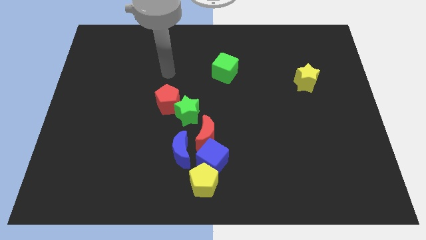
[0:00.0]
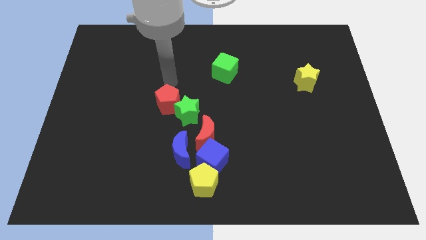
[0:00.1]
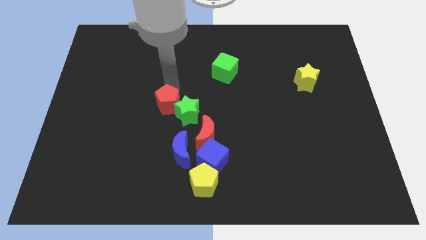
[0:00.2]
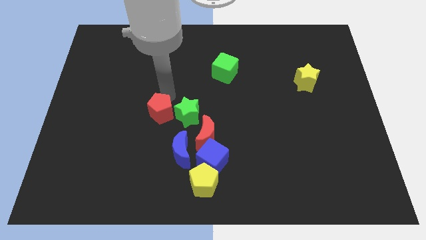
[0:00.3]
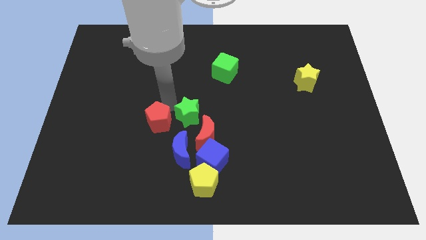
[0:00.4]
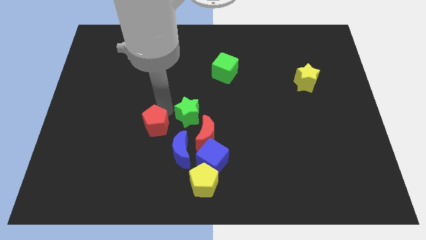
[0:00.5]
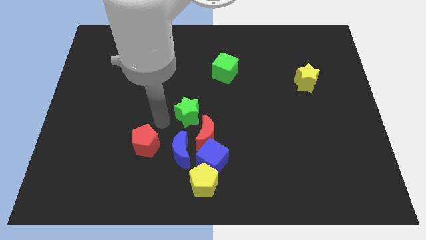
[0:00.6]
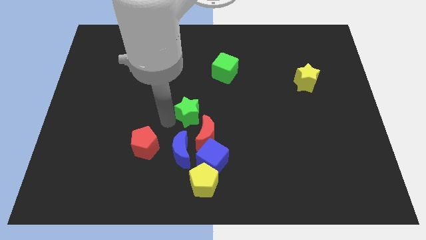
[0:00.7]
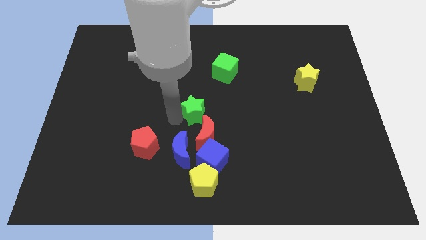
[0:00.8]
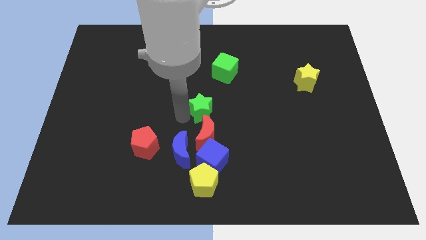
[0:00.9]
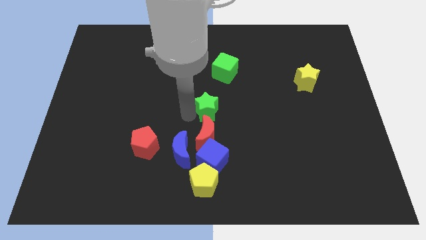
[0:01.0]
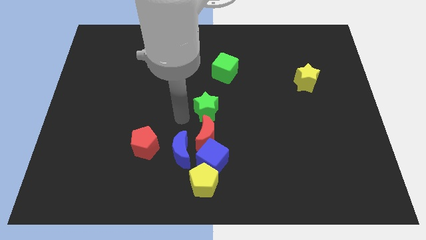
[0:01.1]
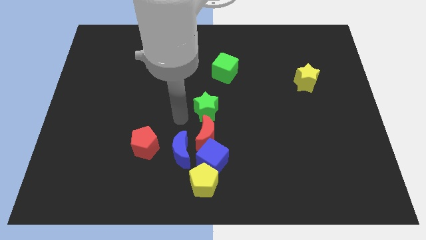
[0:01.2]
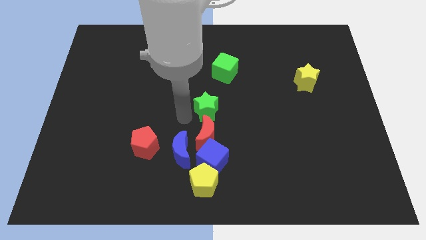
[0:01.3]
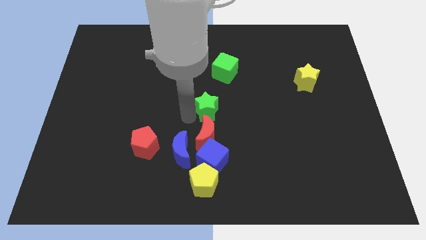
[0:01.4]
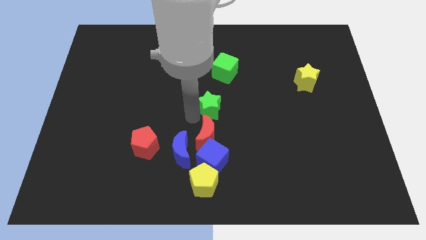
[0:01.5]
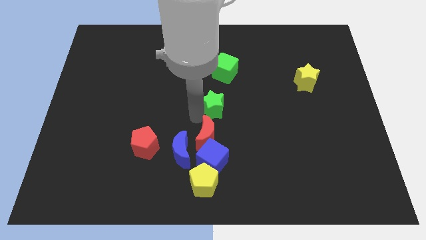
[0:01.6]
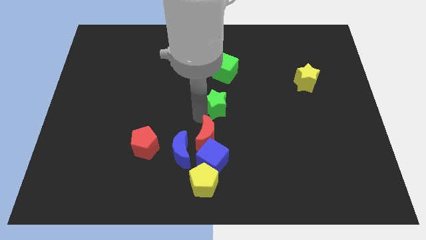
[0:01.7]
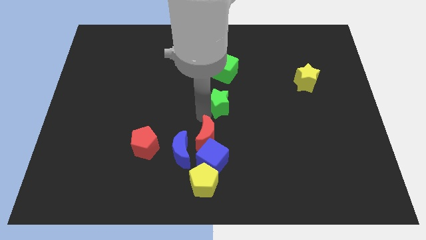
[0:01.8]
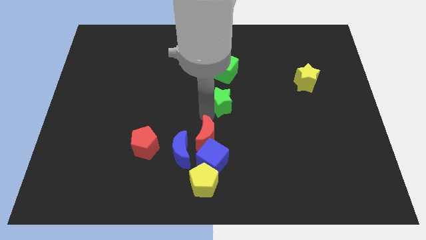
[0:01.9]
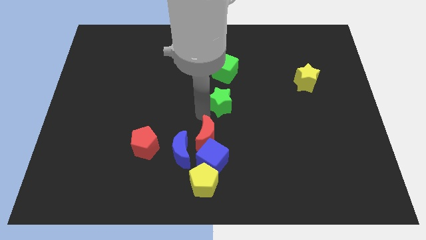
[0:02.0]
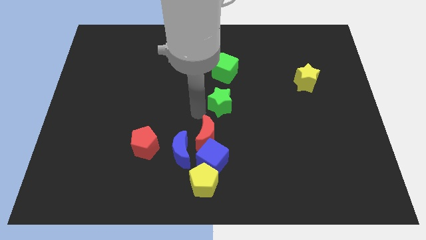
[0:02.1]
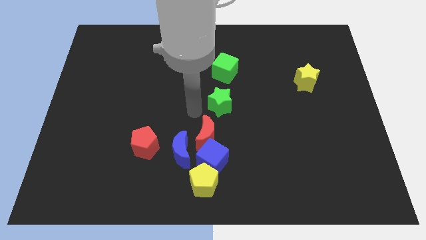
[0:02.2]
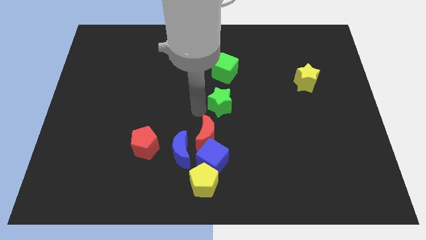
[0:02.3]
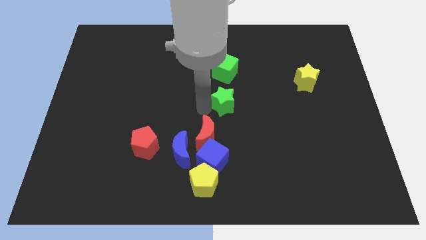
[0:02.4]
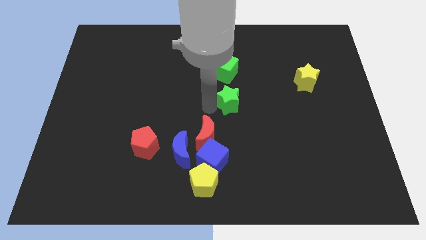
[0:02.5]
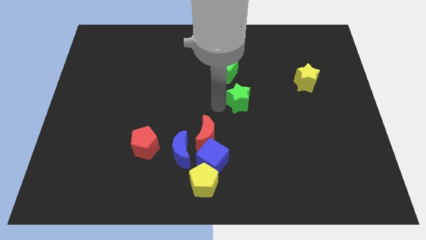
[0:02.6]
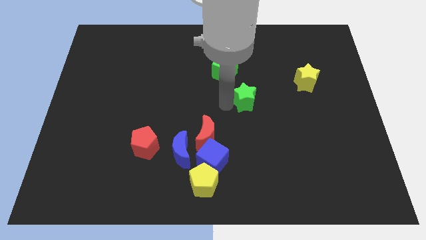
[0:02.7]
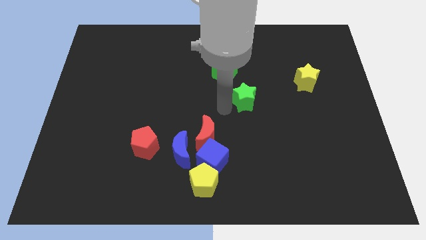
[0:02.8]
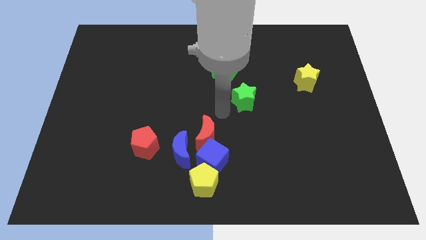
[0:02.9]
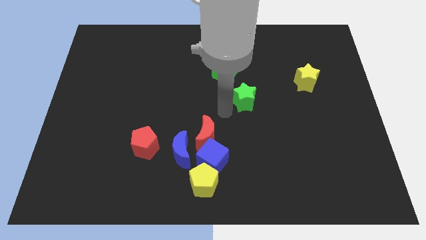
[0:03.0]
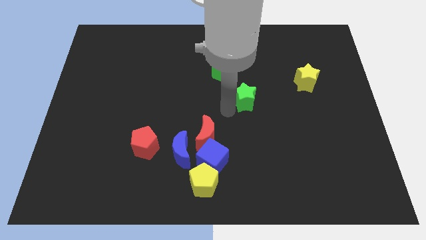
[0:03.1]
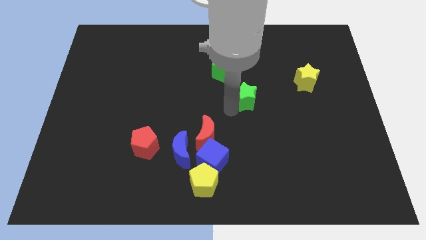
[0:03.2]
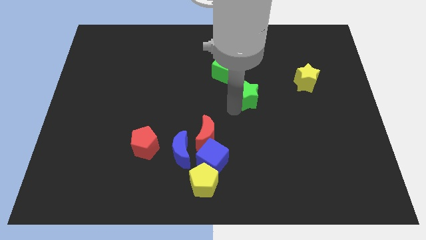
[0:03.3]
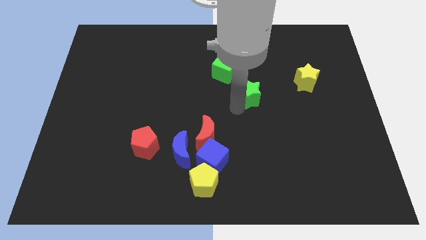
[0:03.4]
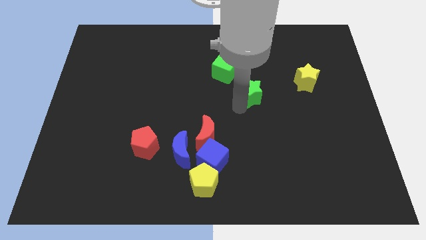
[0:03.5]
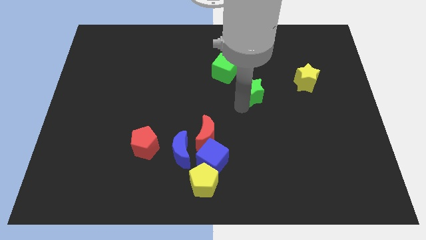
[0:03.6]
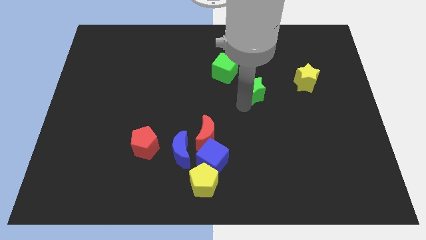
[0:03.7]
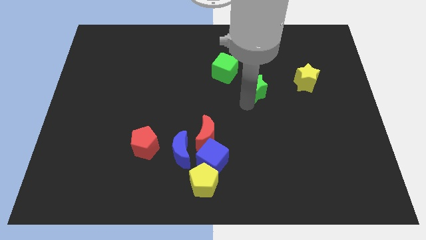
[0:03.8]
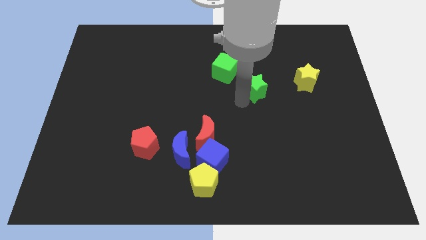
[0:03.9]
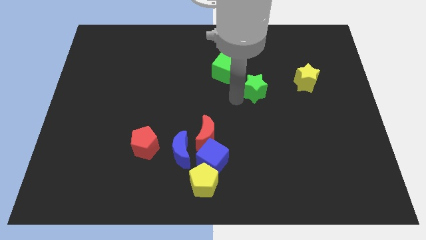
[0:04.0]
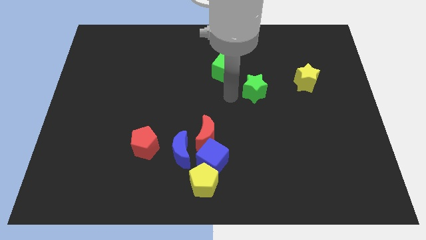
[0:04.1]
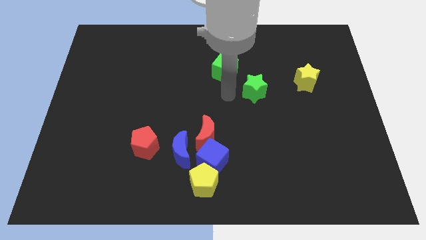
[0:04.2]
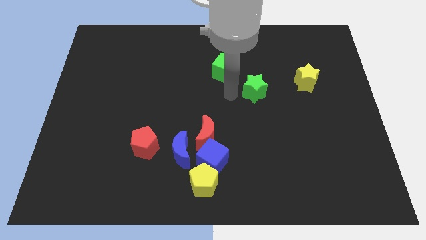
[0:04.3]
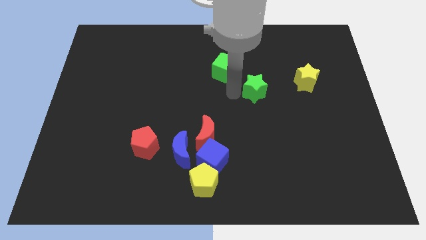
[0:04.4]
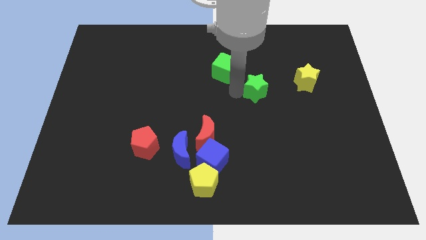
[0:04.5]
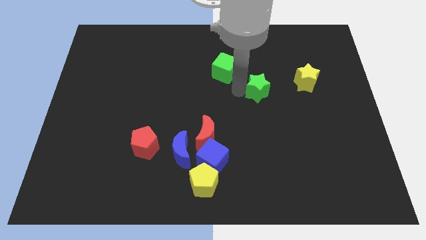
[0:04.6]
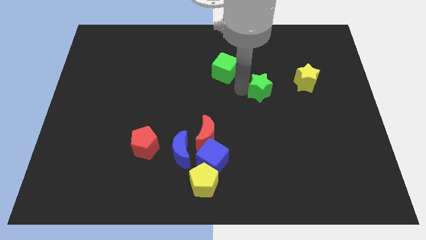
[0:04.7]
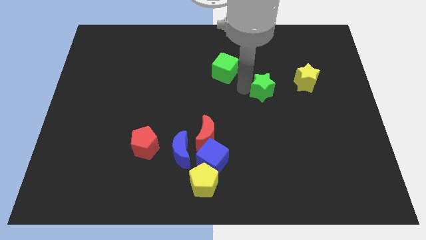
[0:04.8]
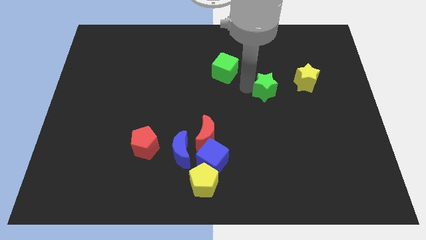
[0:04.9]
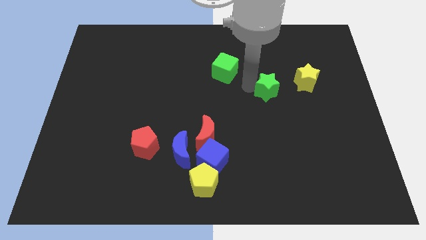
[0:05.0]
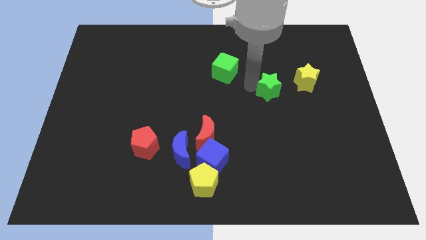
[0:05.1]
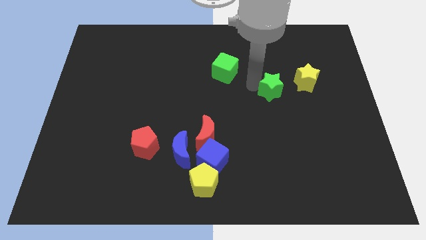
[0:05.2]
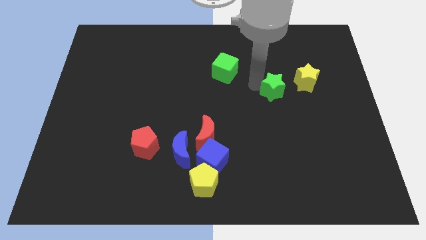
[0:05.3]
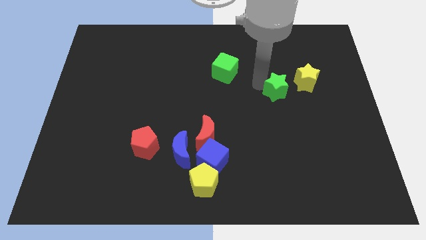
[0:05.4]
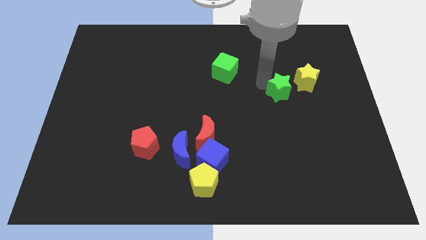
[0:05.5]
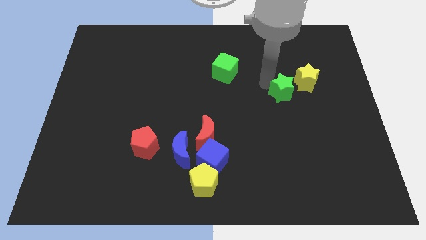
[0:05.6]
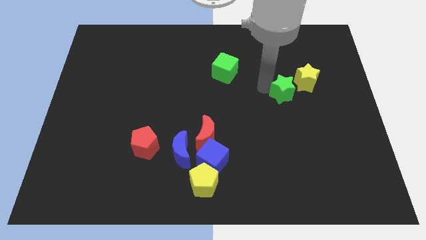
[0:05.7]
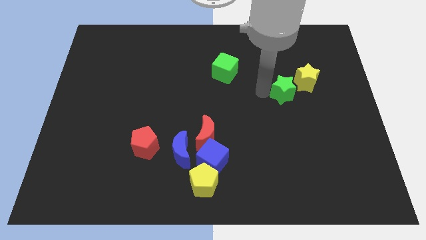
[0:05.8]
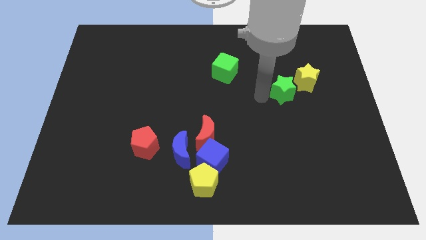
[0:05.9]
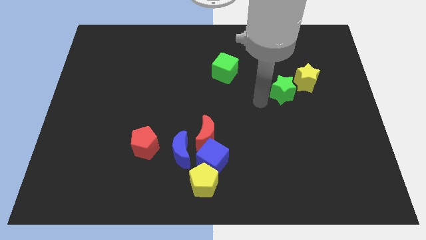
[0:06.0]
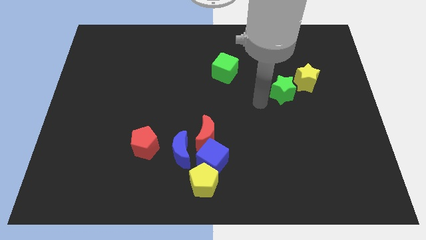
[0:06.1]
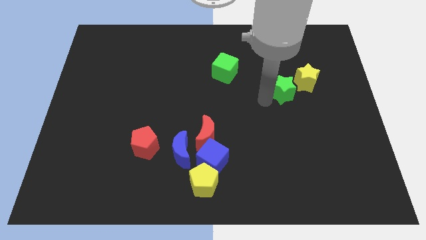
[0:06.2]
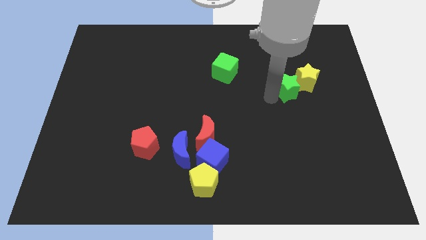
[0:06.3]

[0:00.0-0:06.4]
move the green star to the yellow star

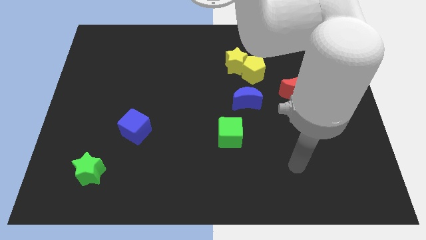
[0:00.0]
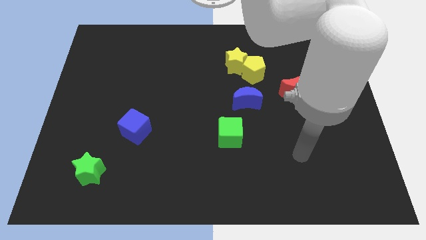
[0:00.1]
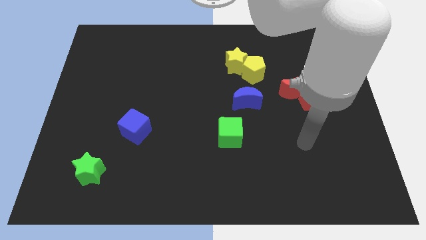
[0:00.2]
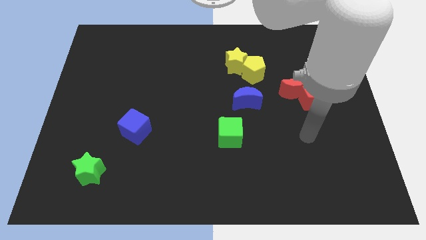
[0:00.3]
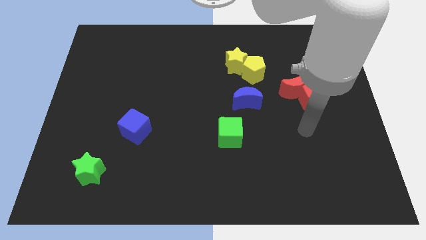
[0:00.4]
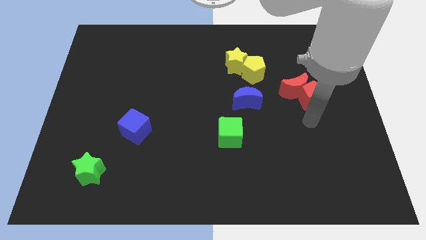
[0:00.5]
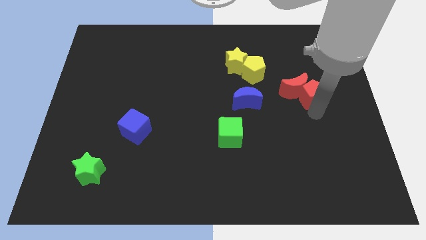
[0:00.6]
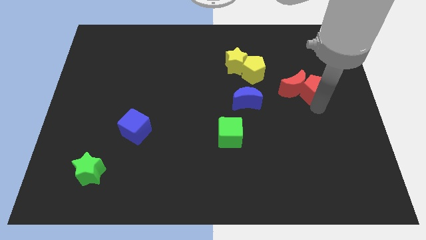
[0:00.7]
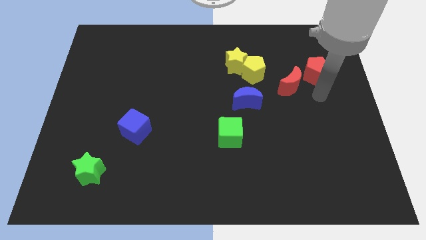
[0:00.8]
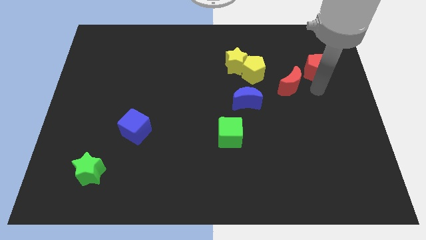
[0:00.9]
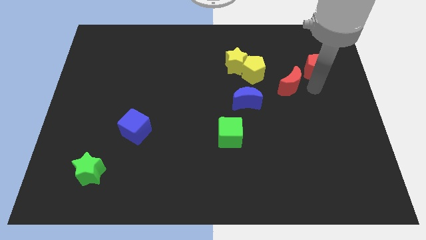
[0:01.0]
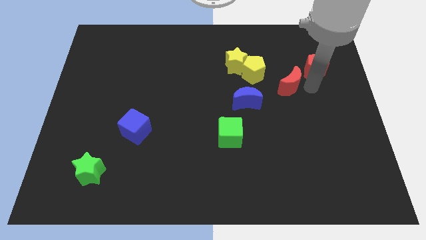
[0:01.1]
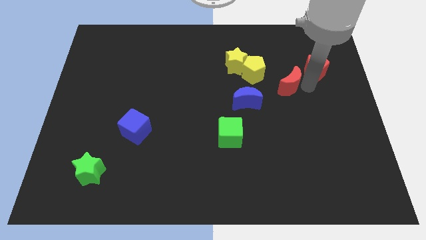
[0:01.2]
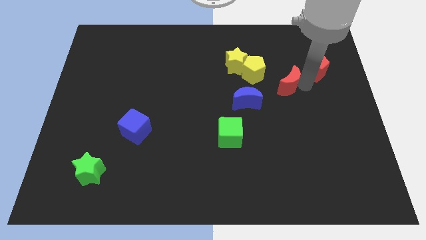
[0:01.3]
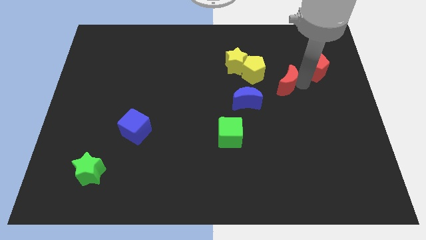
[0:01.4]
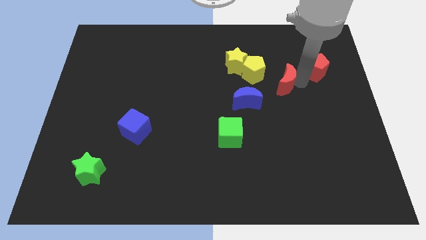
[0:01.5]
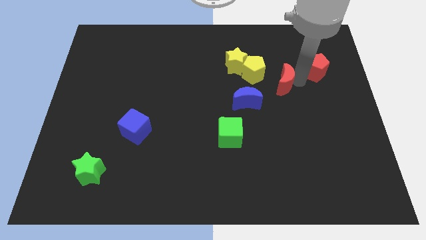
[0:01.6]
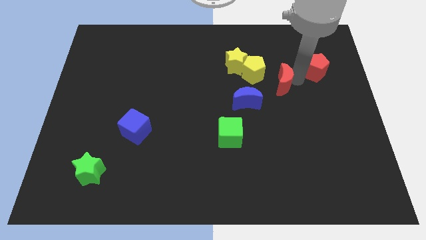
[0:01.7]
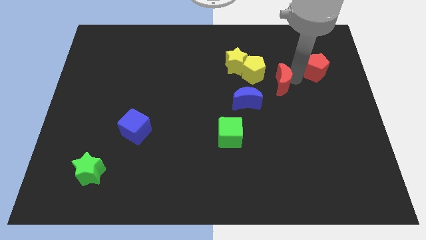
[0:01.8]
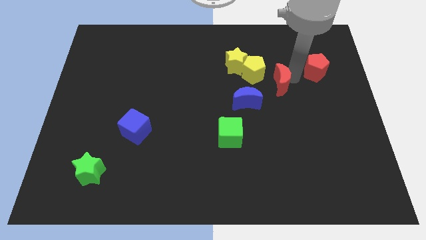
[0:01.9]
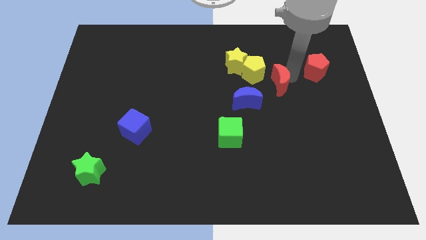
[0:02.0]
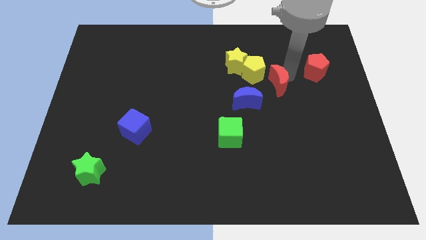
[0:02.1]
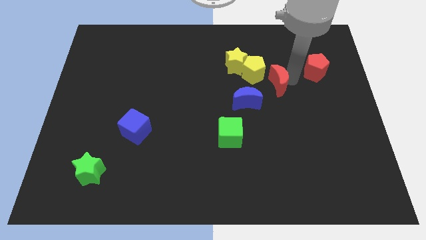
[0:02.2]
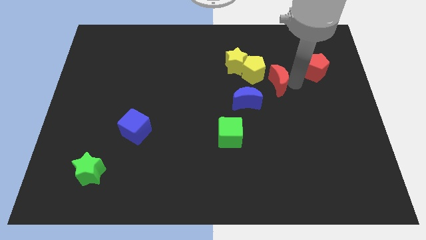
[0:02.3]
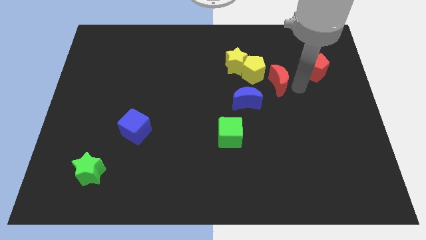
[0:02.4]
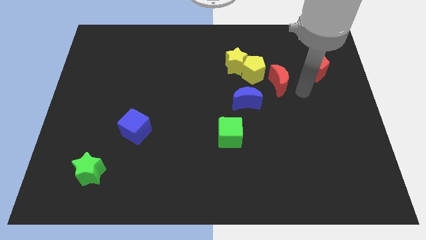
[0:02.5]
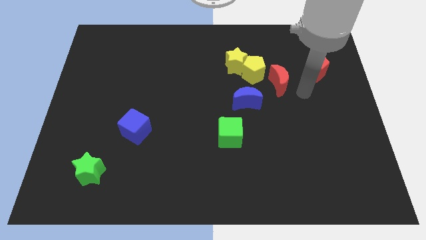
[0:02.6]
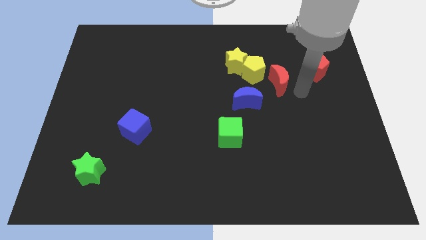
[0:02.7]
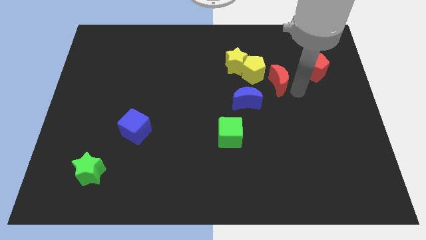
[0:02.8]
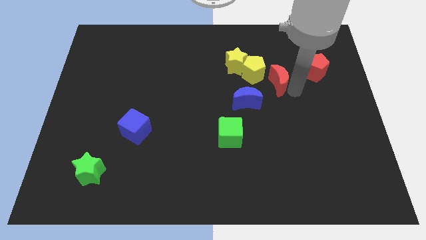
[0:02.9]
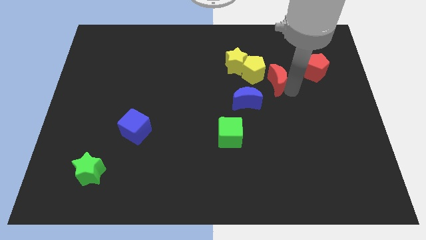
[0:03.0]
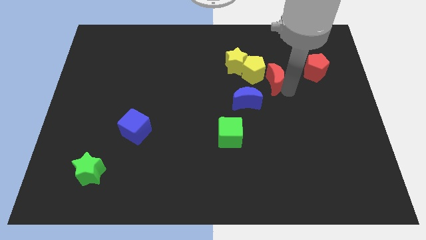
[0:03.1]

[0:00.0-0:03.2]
push the red moon towards the yellow pentagon
